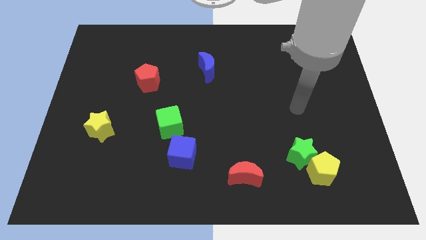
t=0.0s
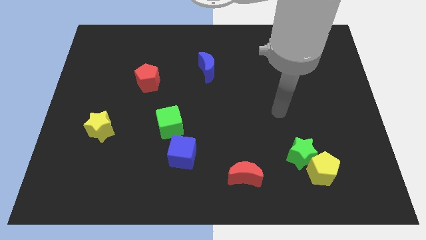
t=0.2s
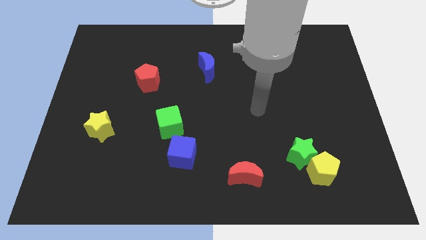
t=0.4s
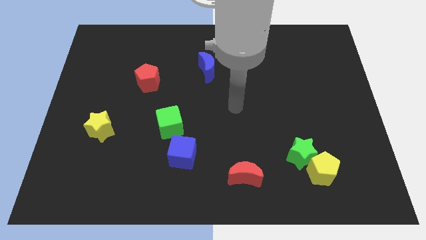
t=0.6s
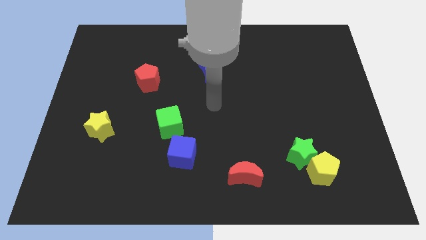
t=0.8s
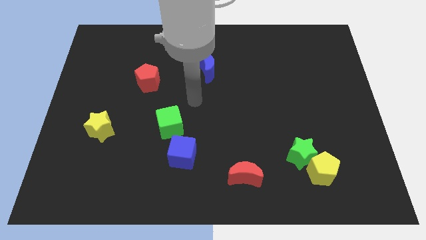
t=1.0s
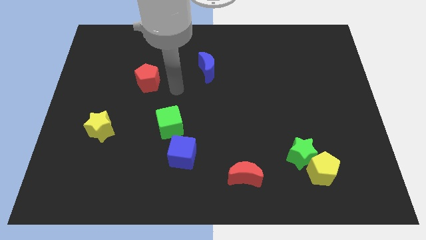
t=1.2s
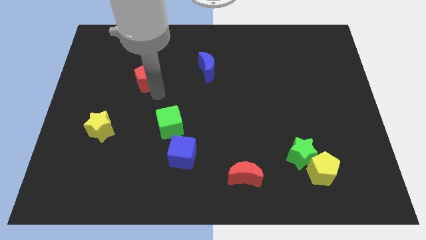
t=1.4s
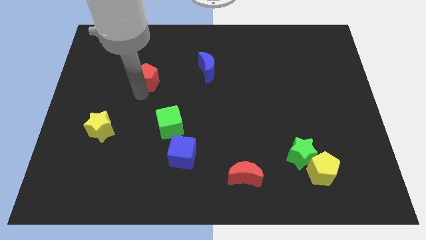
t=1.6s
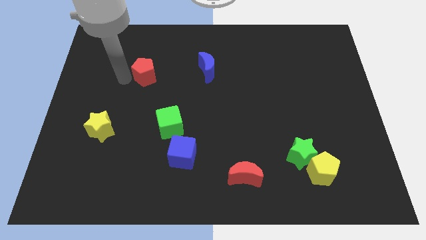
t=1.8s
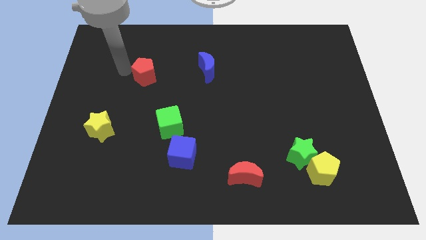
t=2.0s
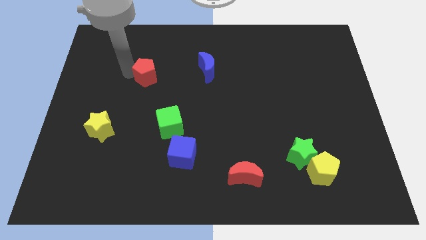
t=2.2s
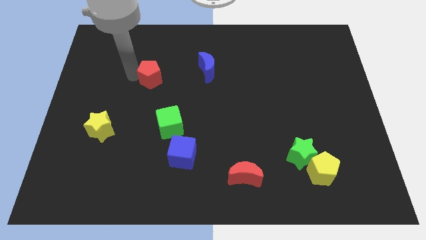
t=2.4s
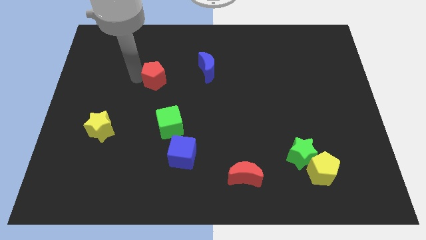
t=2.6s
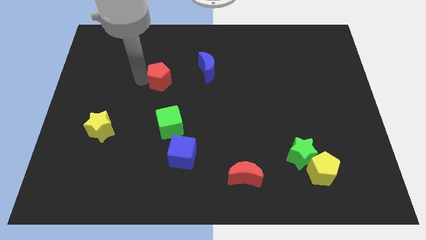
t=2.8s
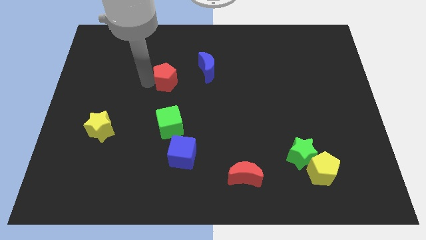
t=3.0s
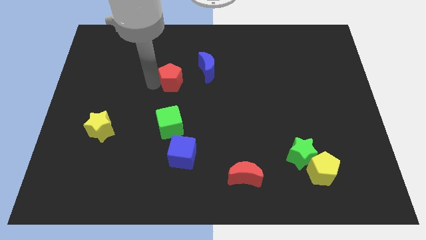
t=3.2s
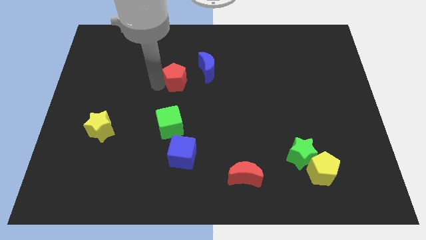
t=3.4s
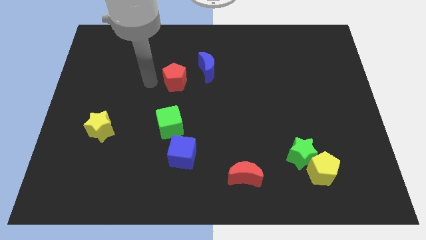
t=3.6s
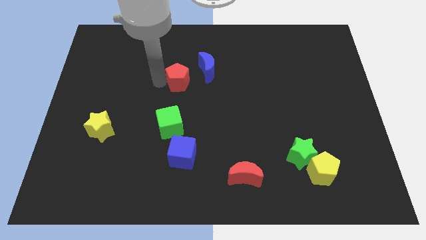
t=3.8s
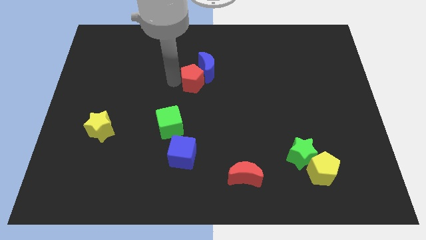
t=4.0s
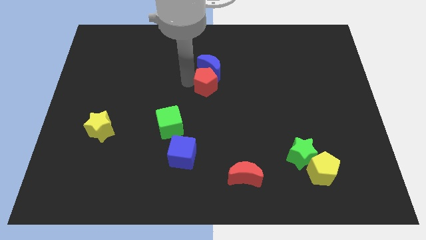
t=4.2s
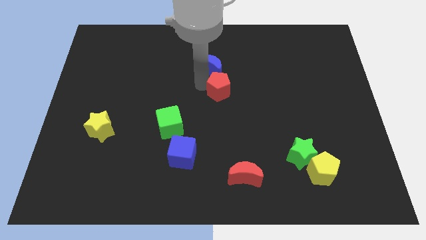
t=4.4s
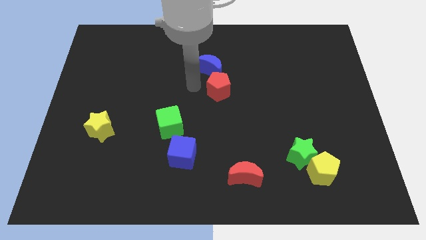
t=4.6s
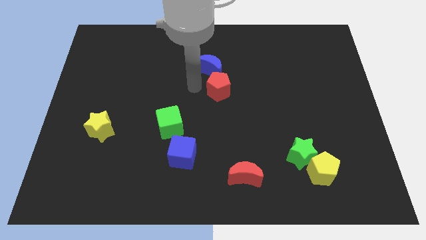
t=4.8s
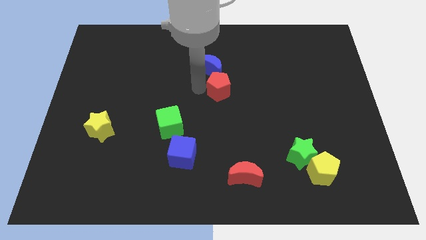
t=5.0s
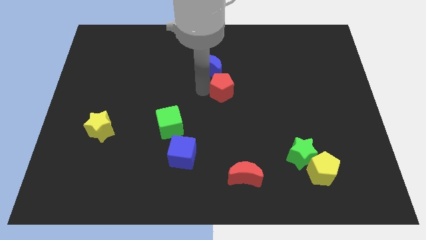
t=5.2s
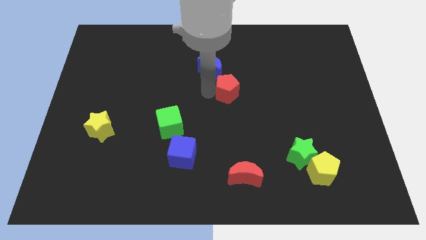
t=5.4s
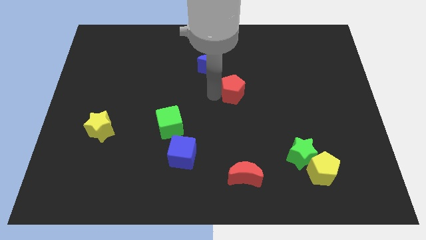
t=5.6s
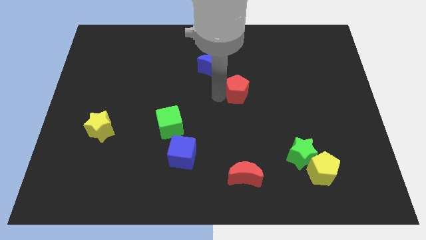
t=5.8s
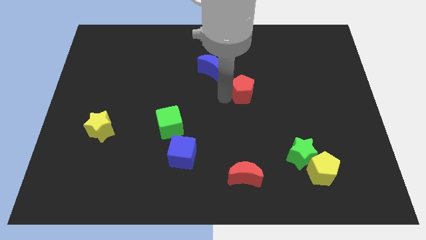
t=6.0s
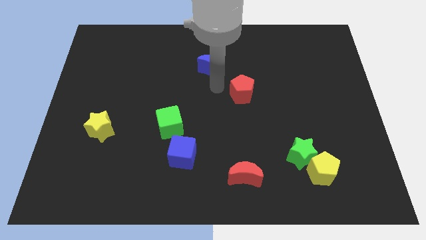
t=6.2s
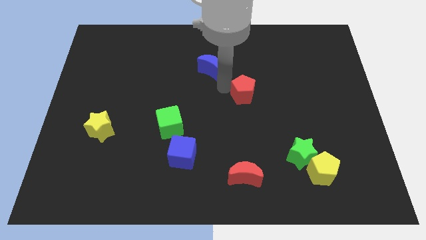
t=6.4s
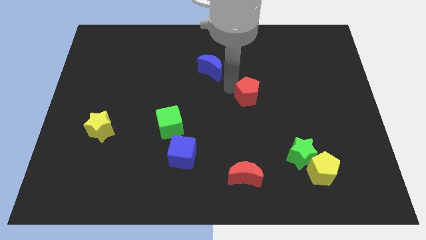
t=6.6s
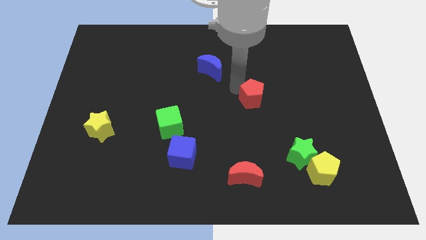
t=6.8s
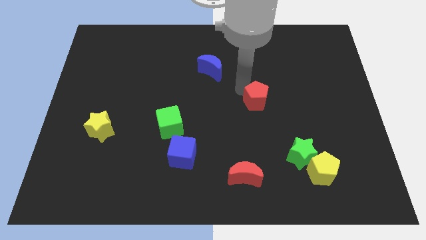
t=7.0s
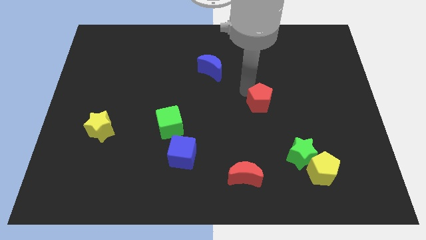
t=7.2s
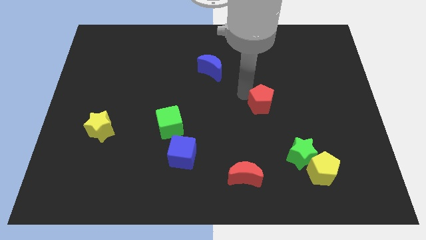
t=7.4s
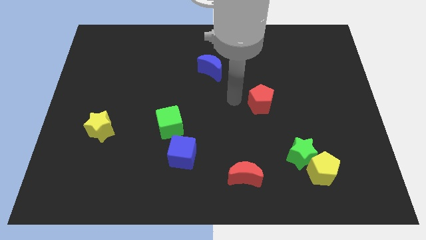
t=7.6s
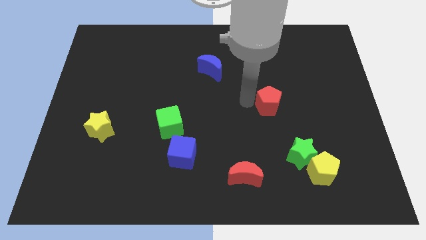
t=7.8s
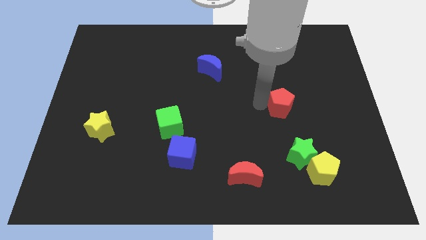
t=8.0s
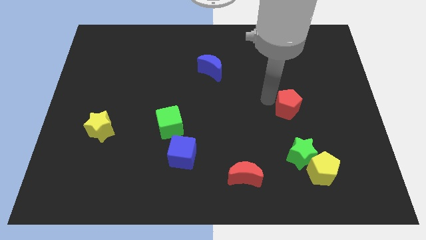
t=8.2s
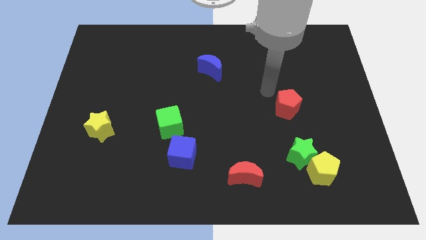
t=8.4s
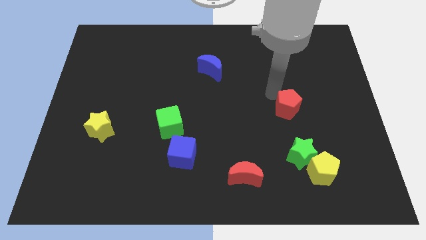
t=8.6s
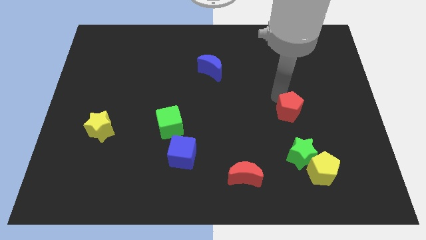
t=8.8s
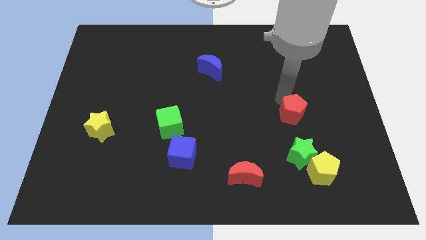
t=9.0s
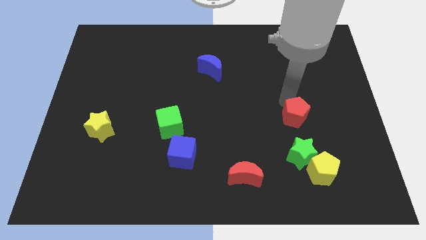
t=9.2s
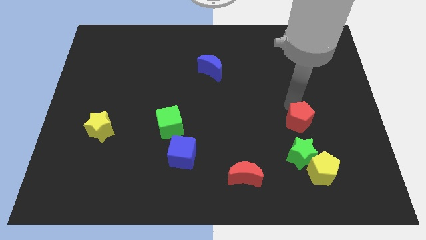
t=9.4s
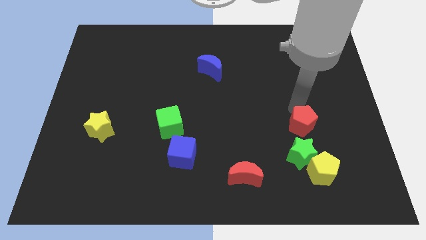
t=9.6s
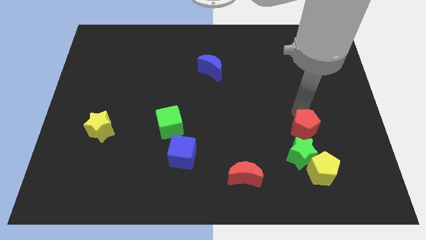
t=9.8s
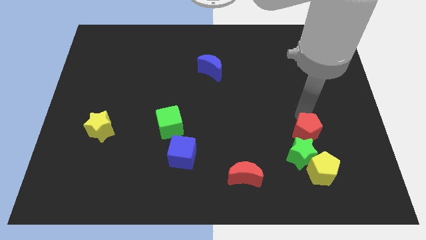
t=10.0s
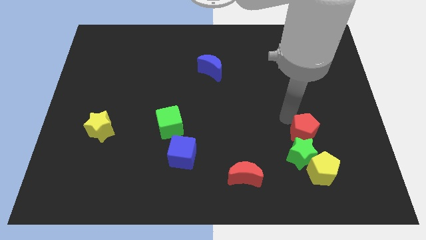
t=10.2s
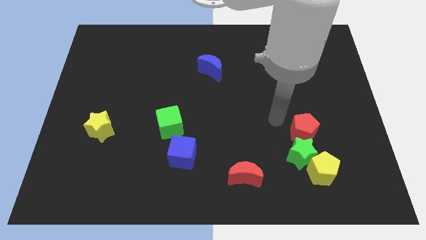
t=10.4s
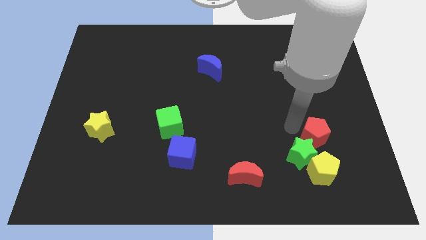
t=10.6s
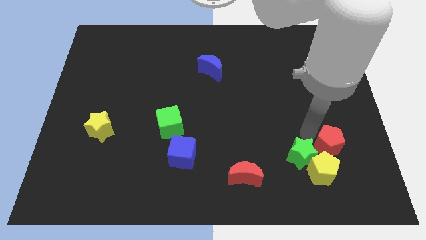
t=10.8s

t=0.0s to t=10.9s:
move the red pentagon to the top right side of the yellow pentagon

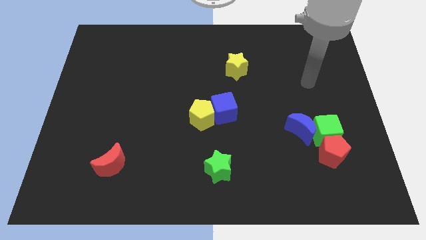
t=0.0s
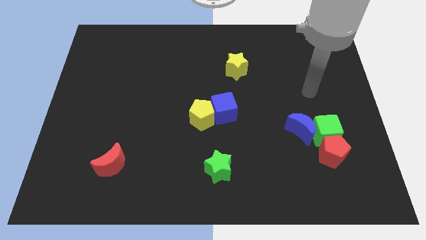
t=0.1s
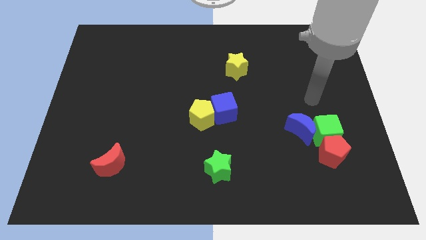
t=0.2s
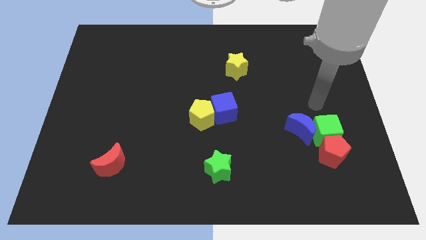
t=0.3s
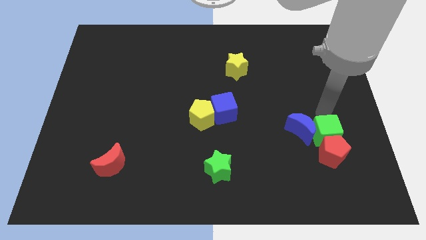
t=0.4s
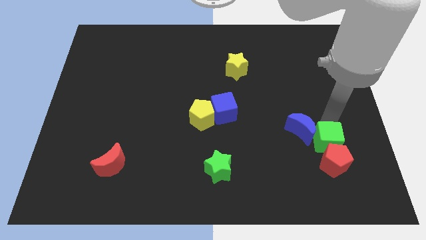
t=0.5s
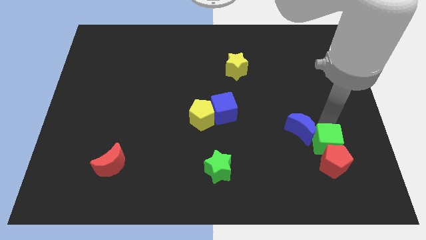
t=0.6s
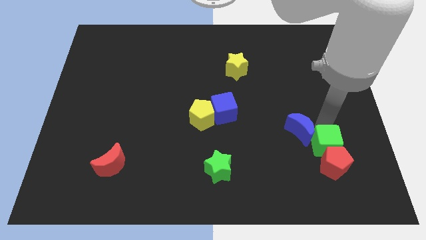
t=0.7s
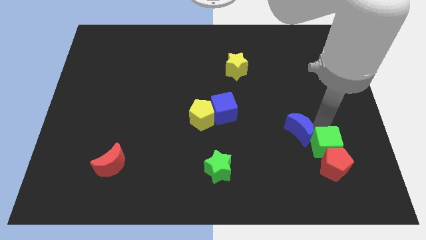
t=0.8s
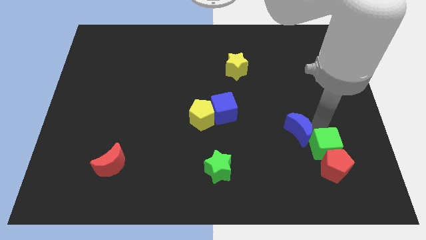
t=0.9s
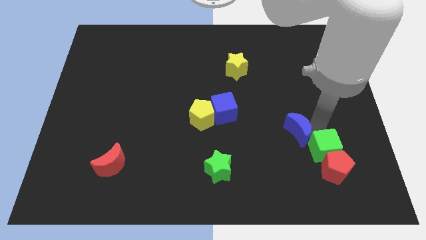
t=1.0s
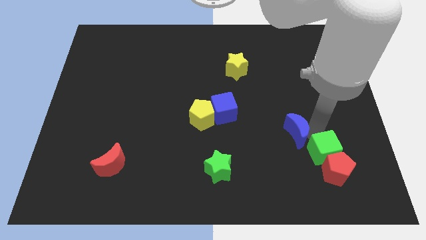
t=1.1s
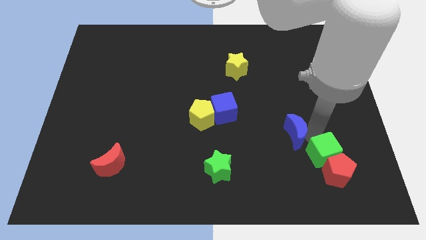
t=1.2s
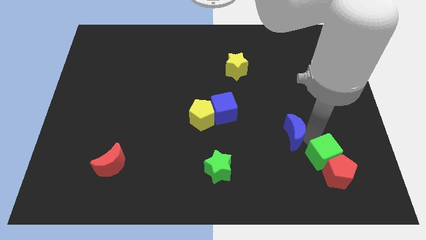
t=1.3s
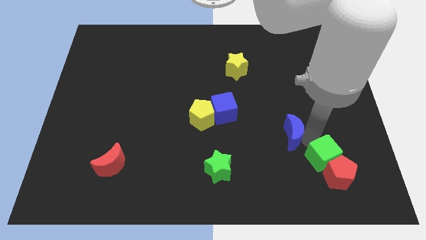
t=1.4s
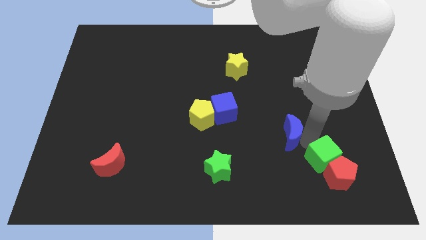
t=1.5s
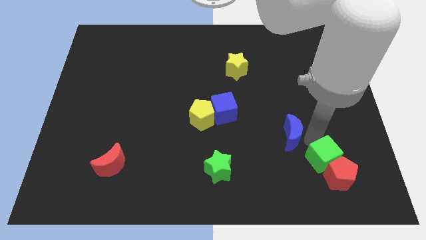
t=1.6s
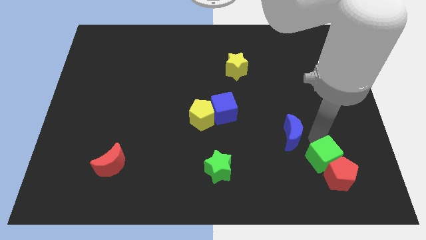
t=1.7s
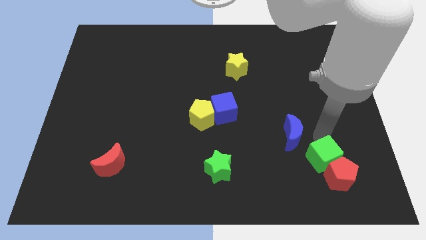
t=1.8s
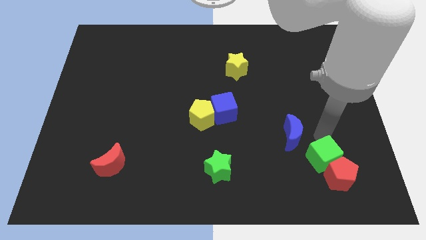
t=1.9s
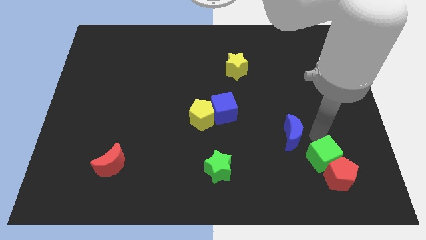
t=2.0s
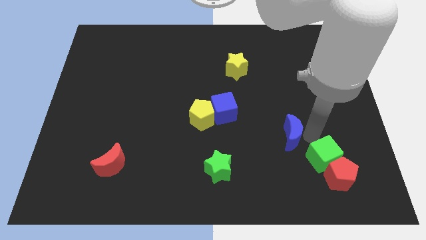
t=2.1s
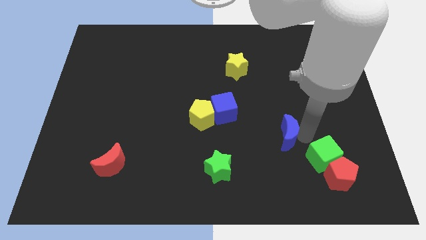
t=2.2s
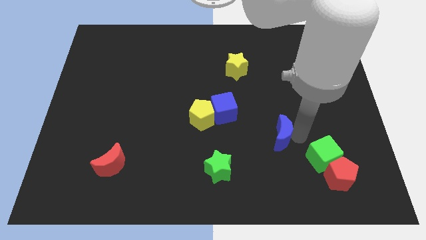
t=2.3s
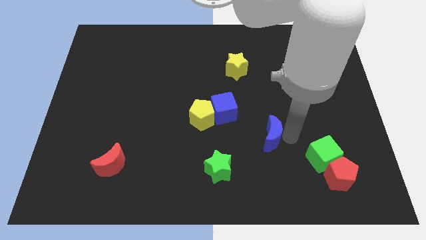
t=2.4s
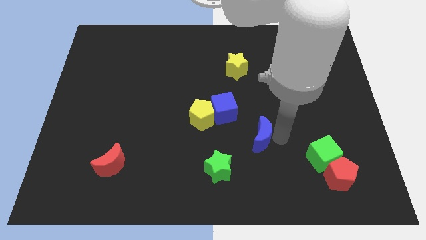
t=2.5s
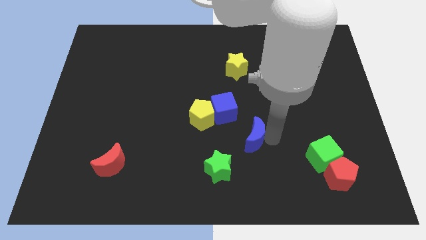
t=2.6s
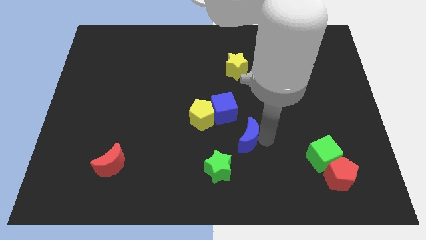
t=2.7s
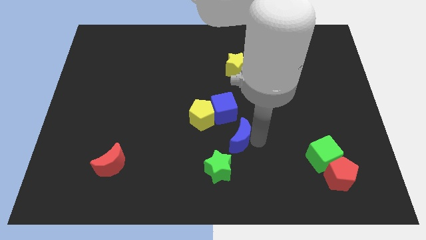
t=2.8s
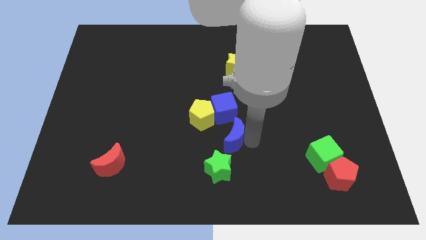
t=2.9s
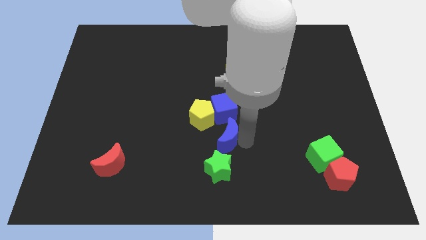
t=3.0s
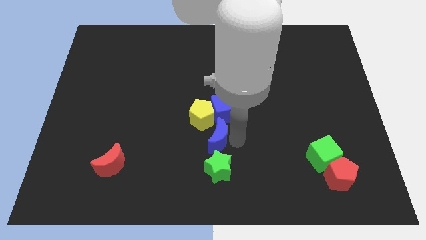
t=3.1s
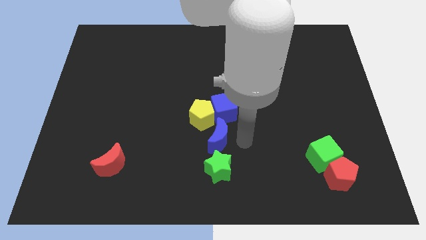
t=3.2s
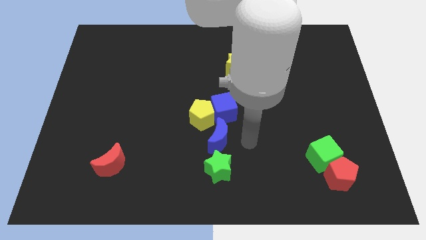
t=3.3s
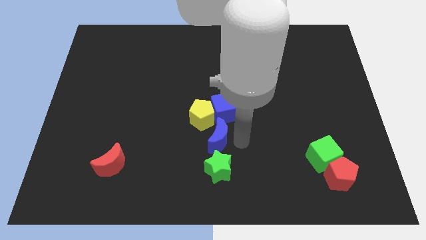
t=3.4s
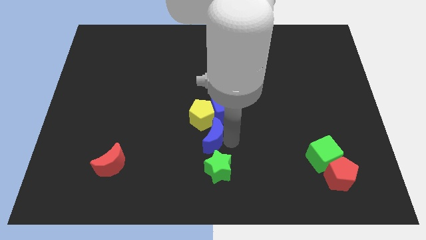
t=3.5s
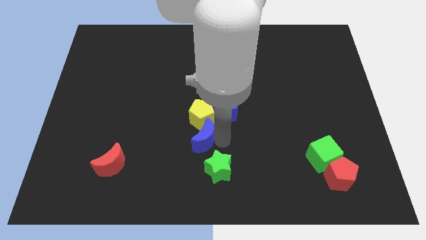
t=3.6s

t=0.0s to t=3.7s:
put the blue moon to the bottom left side of the yellow pentagon
